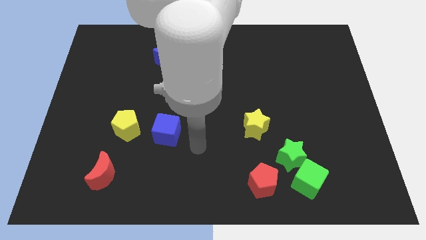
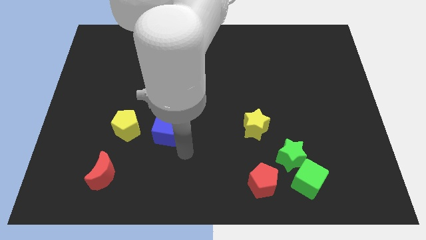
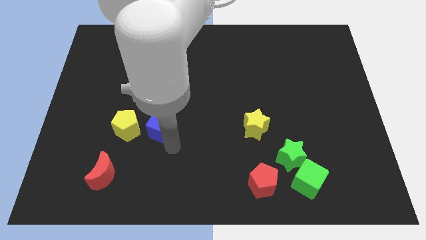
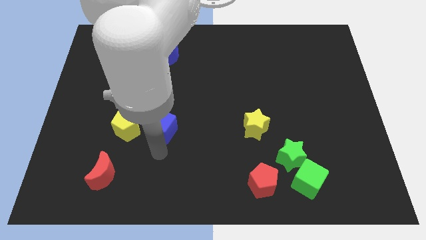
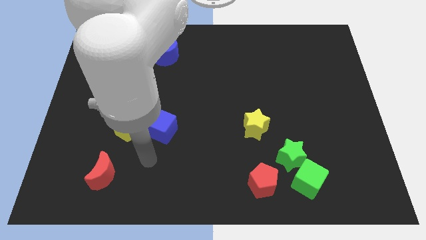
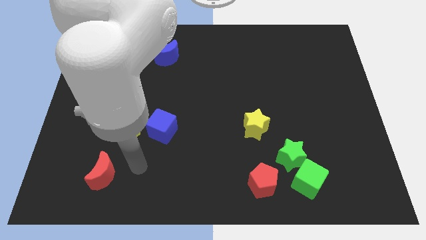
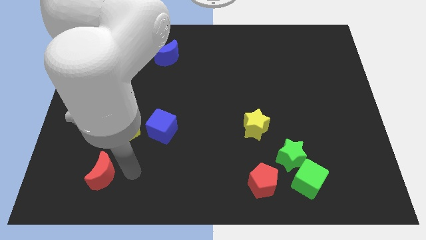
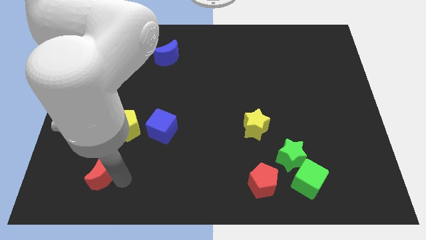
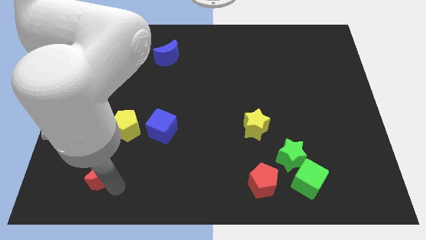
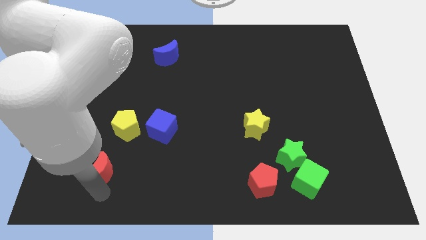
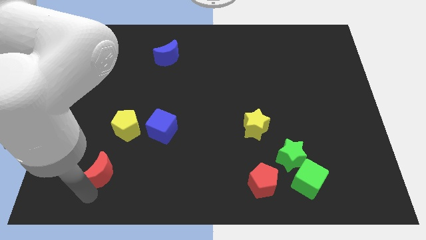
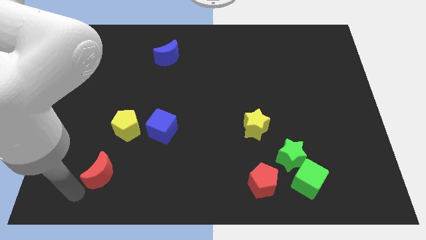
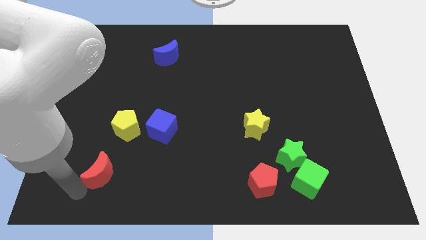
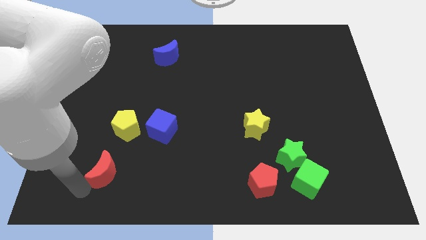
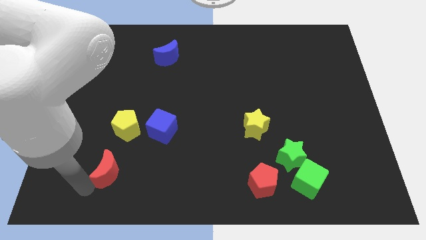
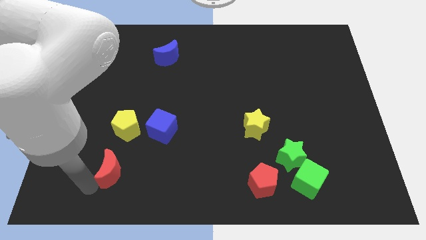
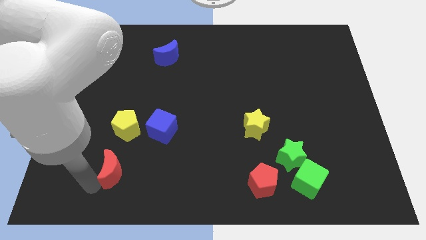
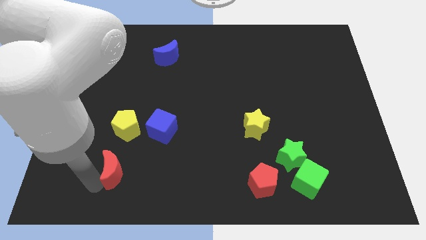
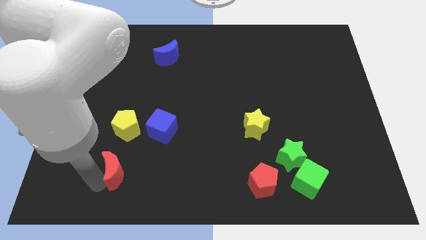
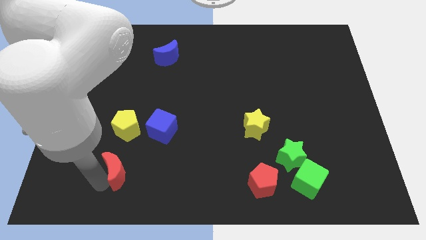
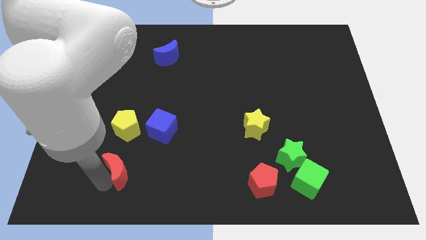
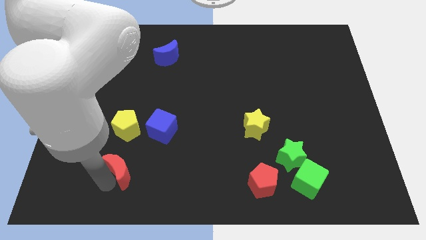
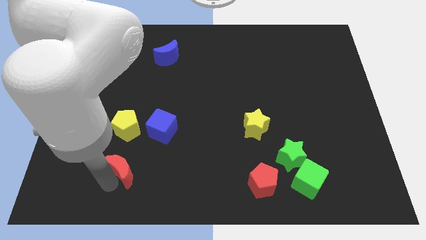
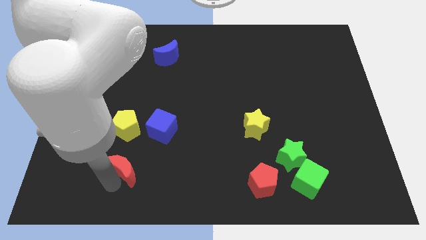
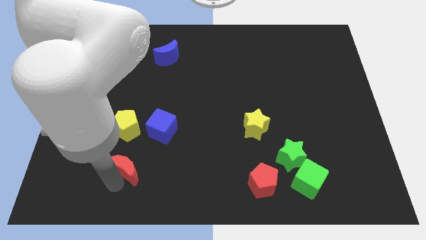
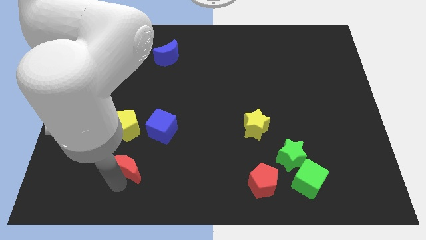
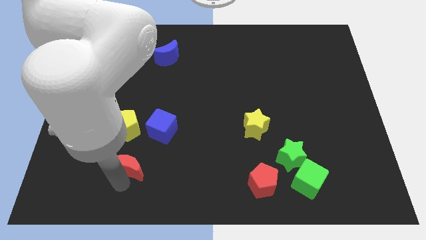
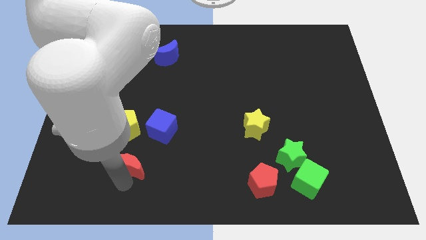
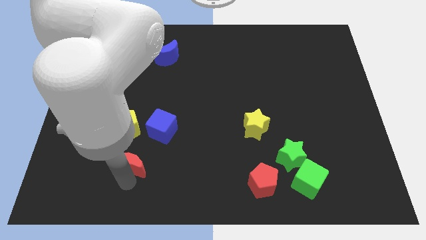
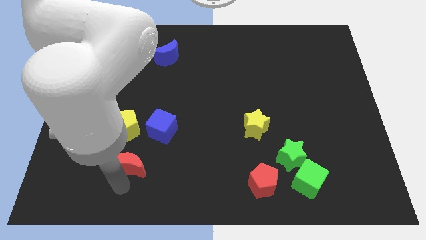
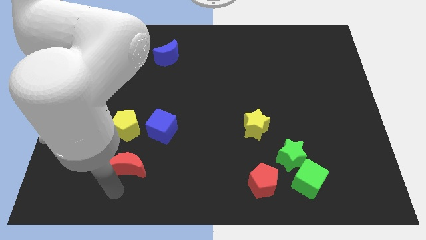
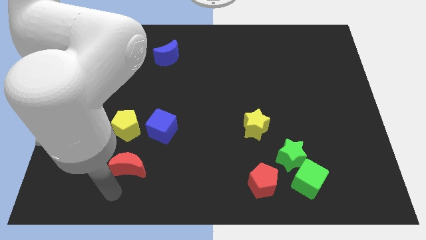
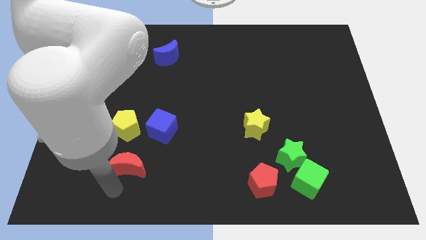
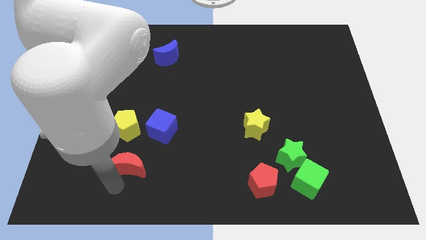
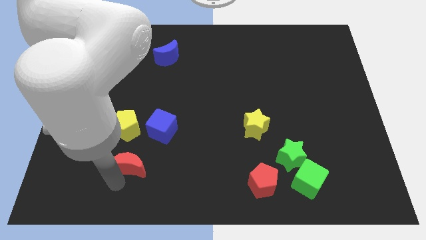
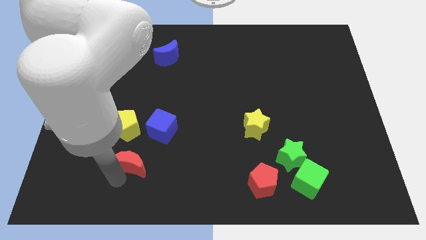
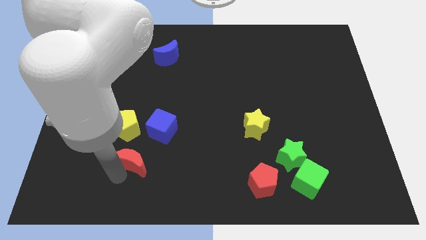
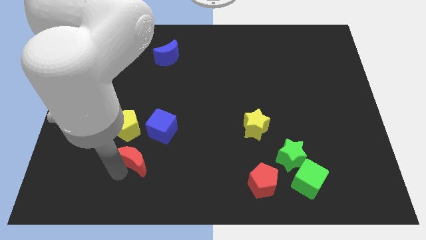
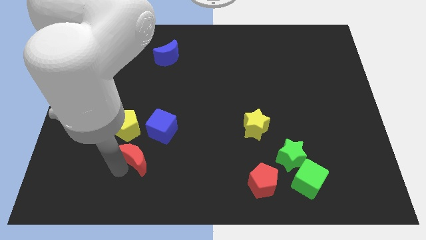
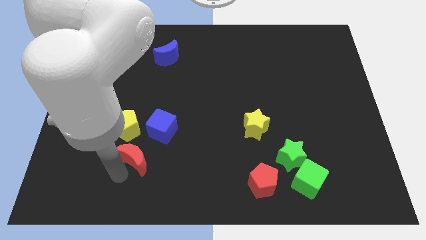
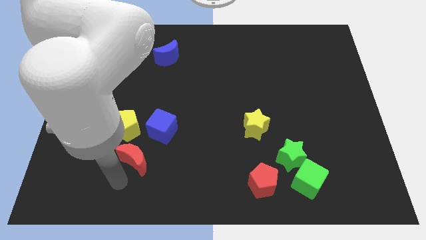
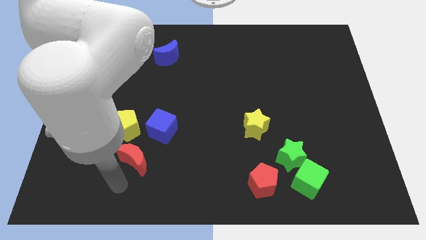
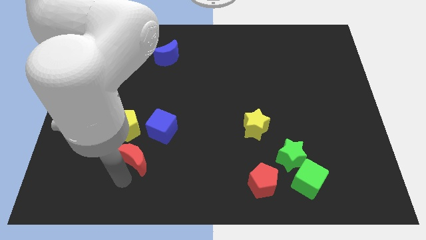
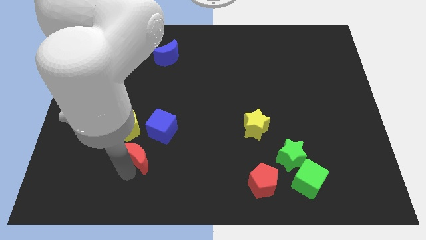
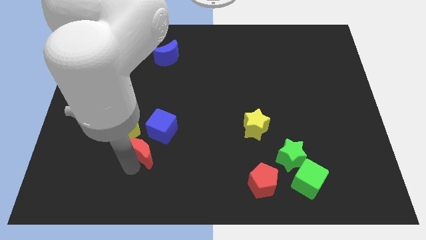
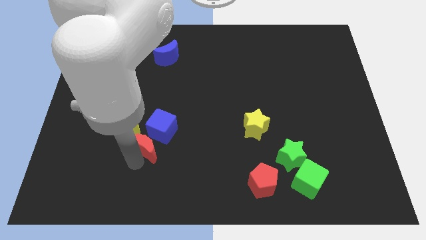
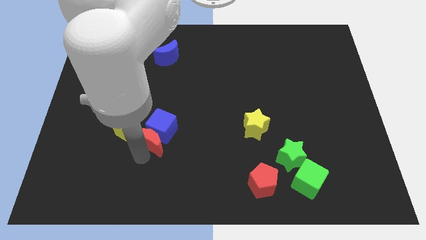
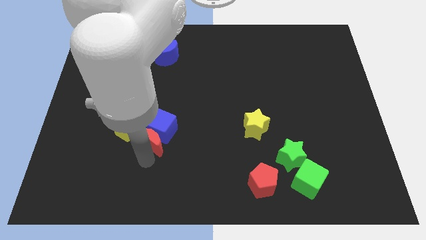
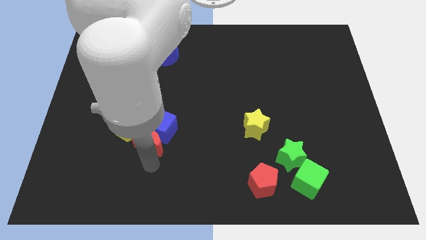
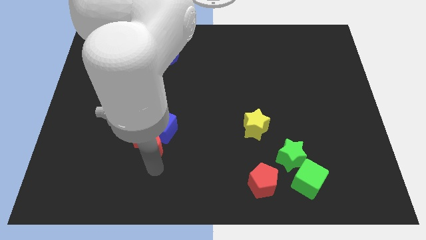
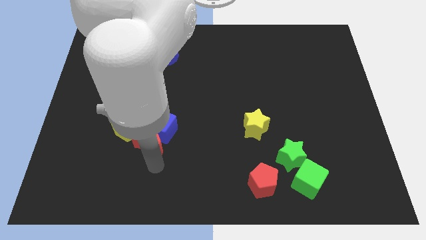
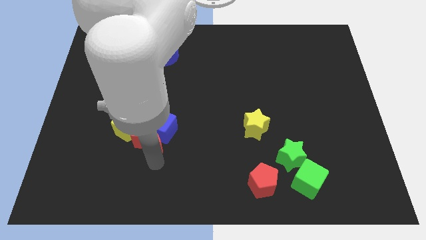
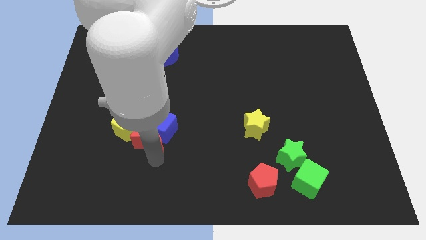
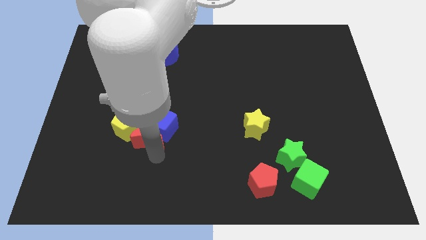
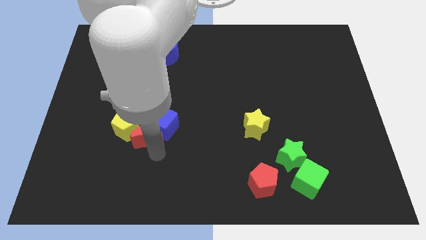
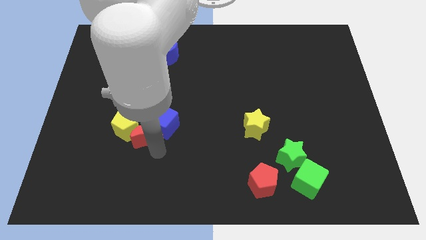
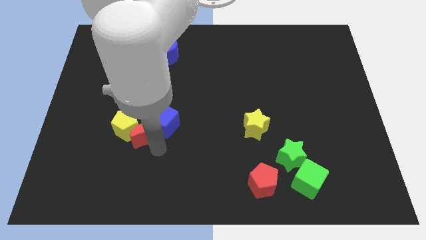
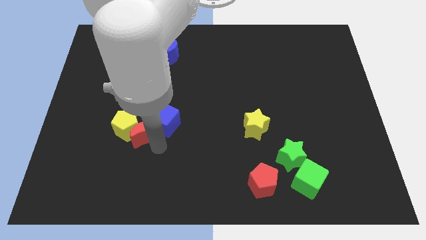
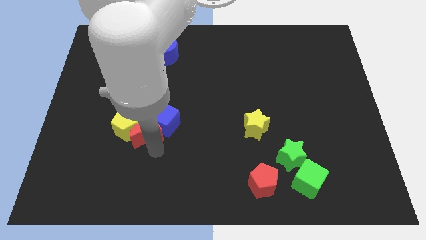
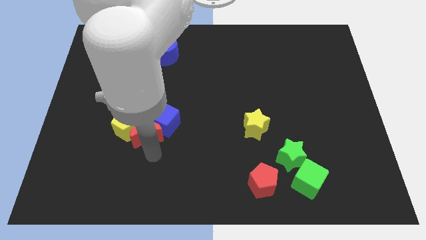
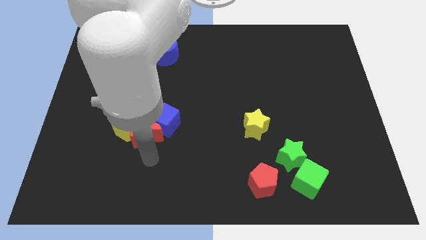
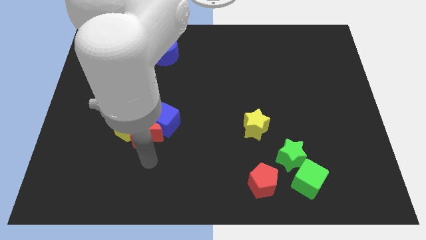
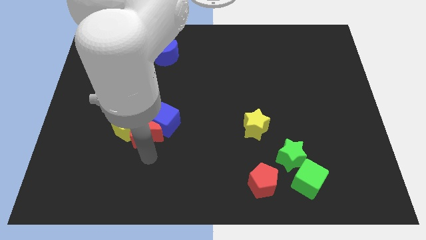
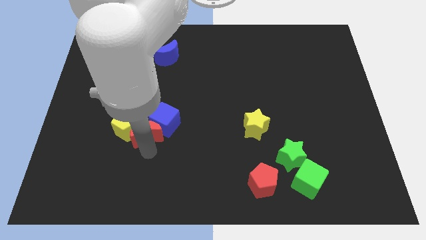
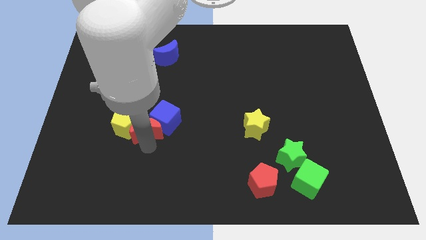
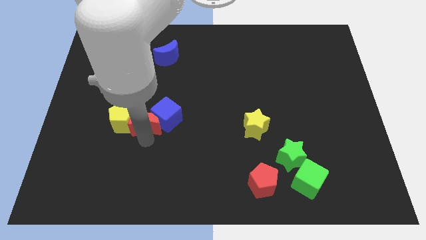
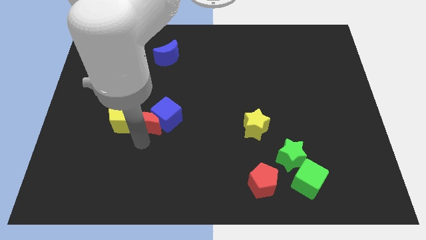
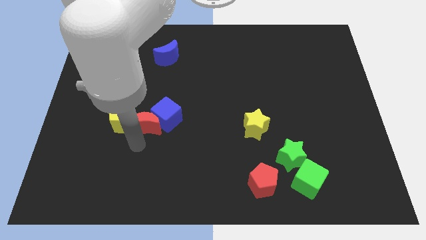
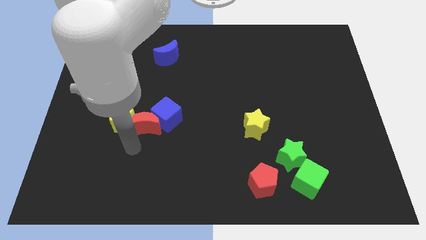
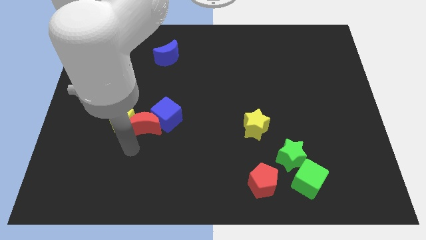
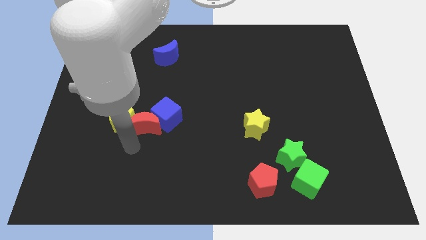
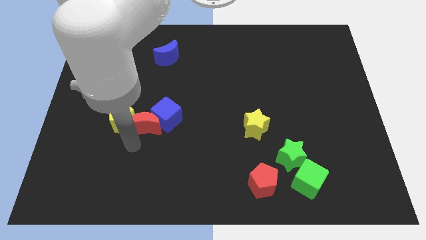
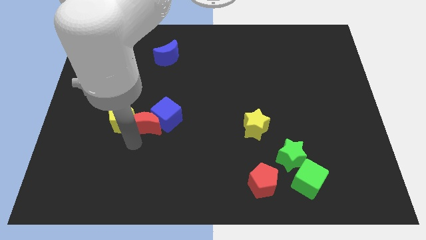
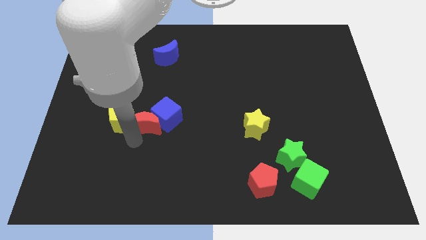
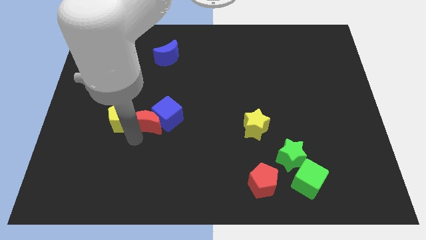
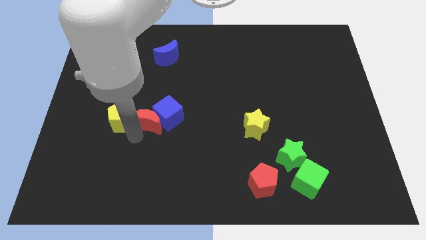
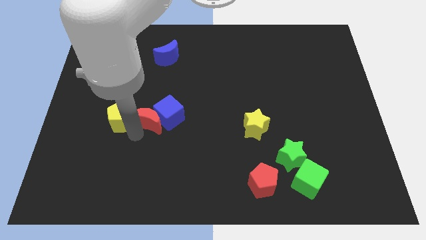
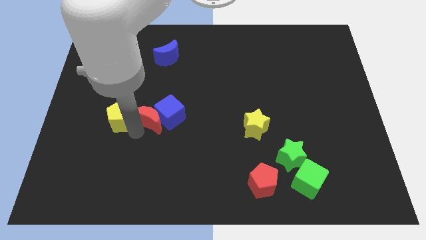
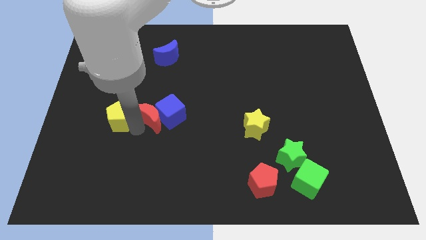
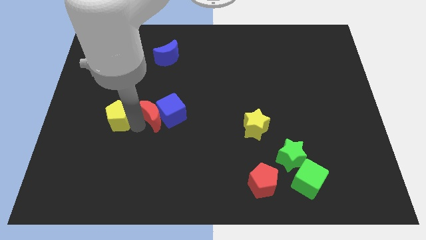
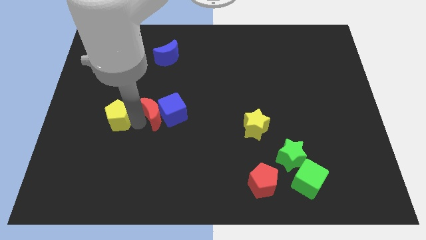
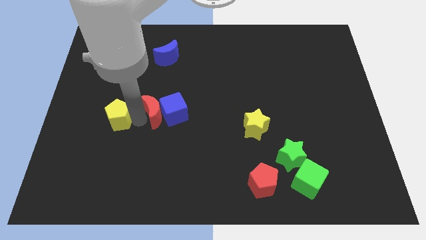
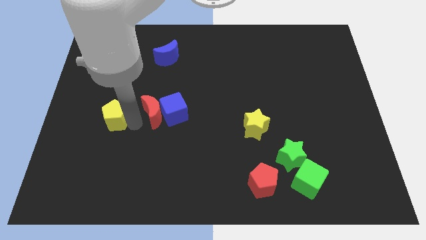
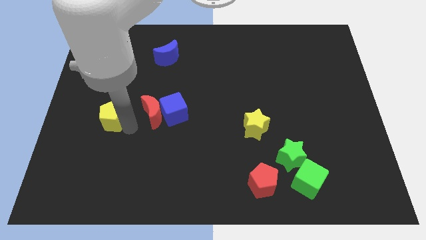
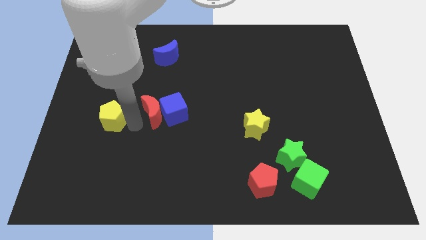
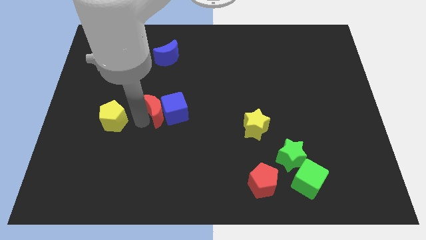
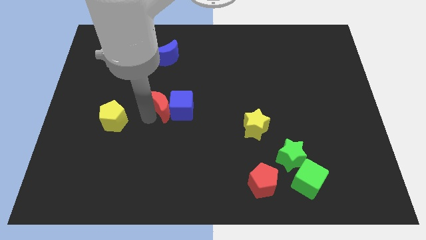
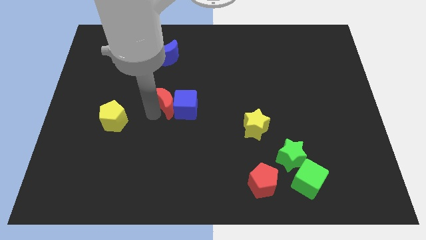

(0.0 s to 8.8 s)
slide the red moon upwards and to the right diagonally
